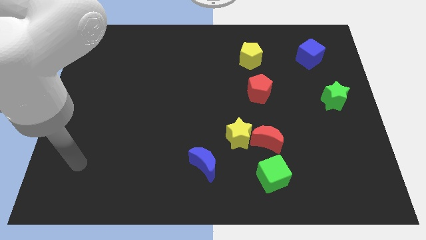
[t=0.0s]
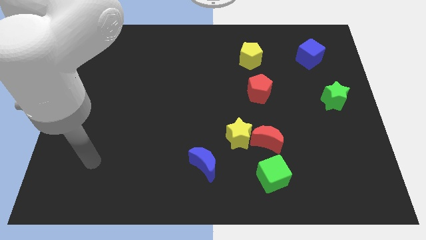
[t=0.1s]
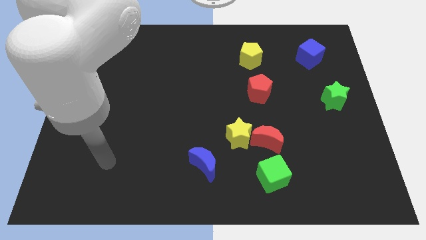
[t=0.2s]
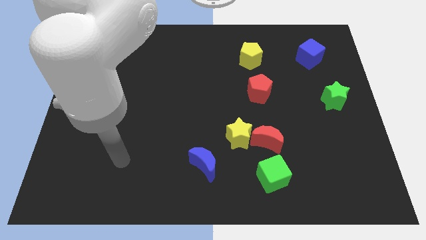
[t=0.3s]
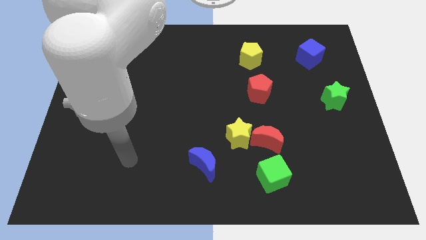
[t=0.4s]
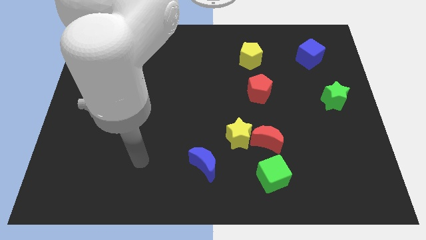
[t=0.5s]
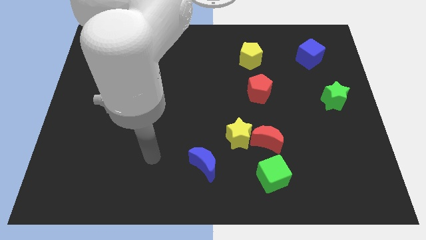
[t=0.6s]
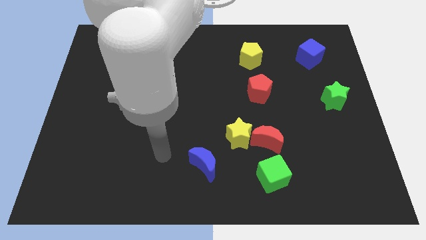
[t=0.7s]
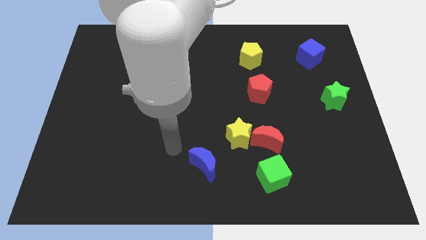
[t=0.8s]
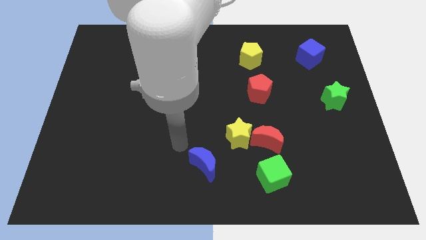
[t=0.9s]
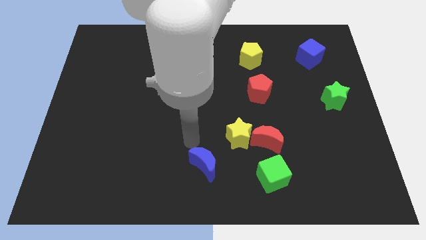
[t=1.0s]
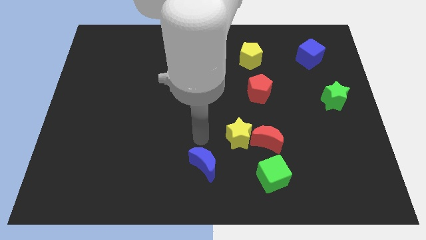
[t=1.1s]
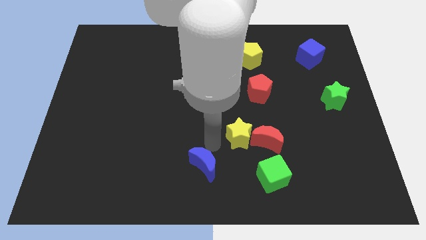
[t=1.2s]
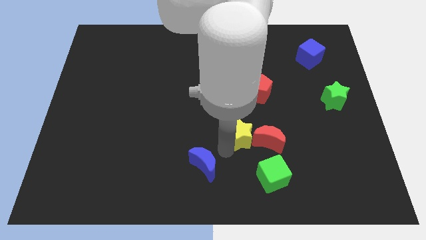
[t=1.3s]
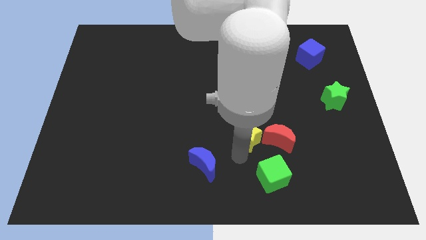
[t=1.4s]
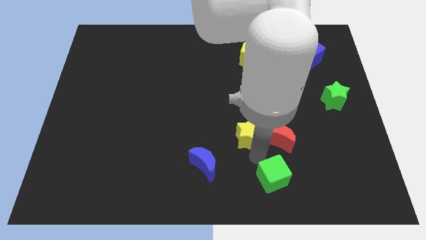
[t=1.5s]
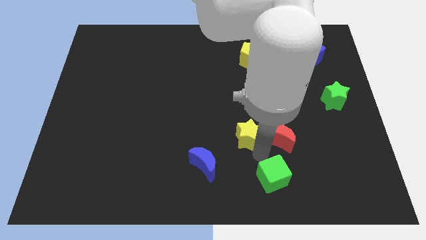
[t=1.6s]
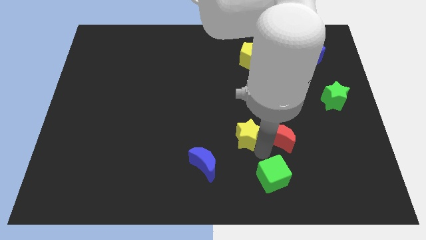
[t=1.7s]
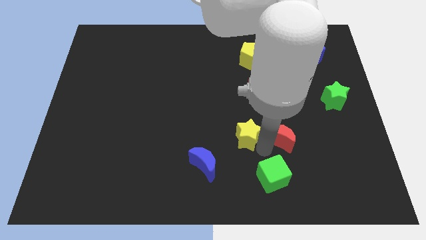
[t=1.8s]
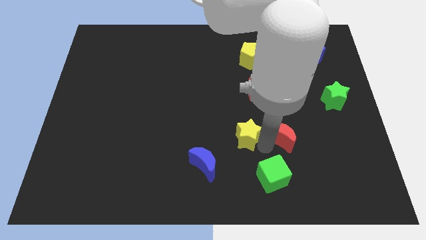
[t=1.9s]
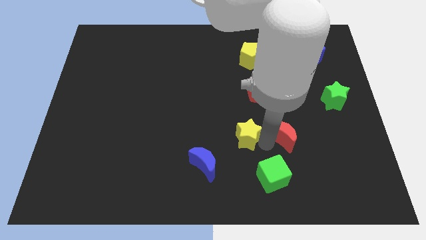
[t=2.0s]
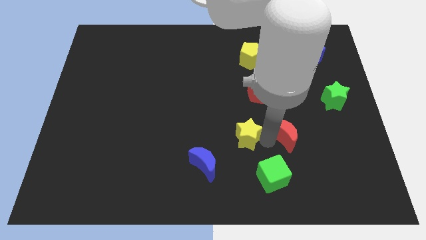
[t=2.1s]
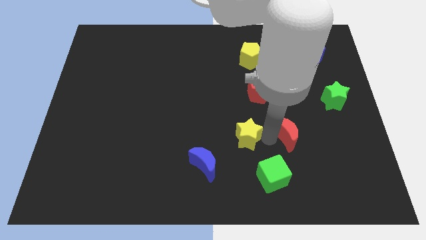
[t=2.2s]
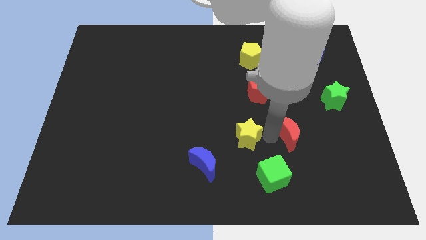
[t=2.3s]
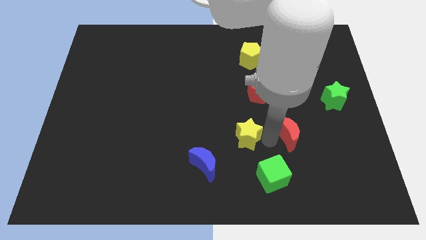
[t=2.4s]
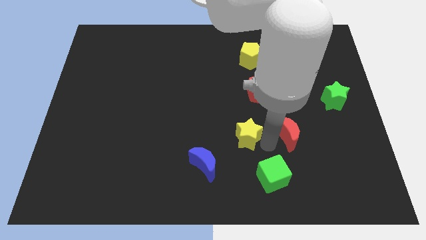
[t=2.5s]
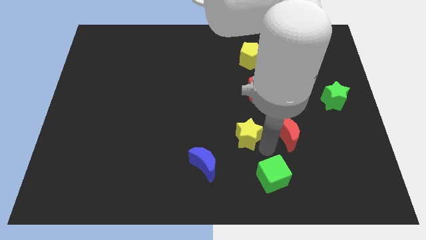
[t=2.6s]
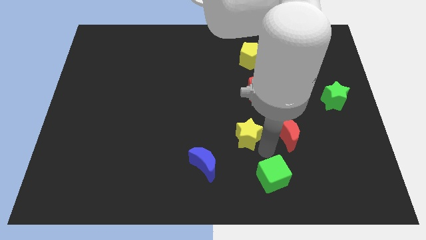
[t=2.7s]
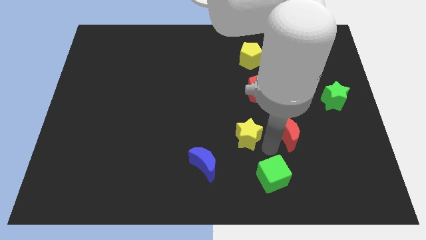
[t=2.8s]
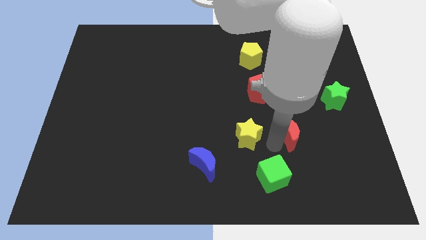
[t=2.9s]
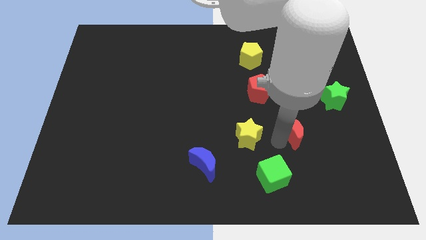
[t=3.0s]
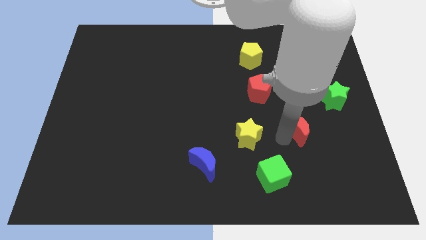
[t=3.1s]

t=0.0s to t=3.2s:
pull the red moon apart from the yellow star and green cube

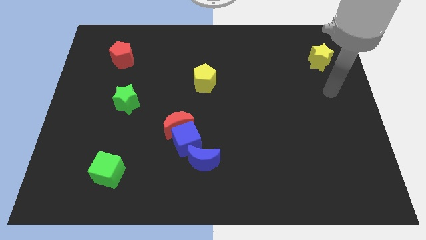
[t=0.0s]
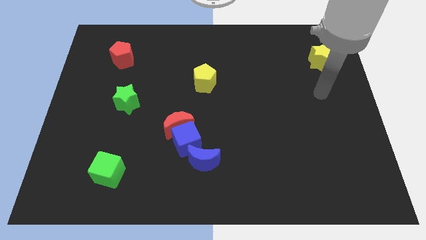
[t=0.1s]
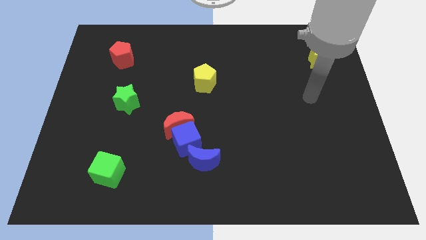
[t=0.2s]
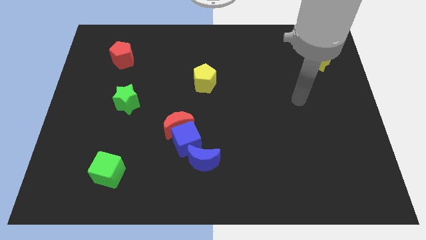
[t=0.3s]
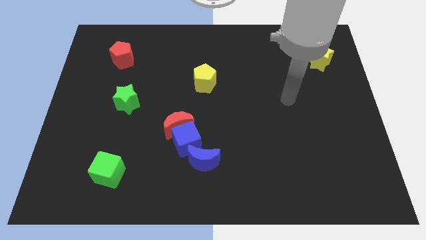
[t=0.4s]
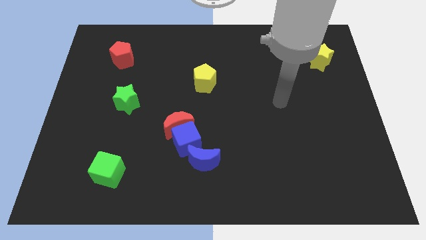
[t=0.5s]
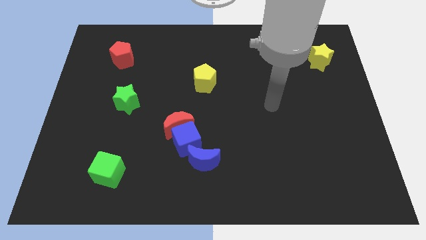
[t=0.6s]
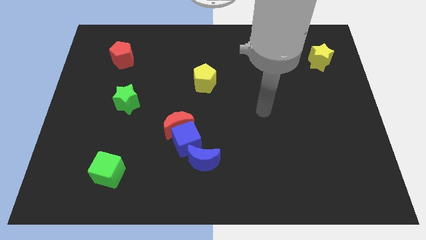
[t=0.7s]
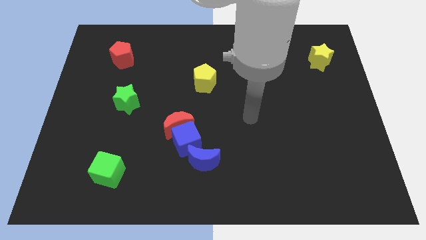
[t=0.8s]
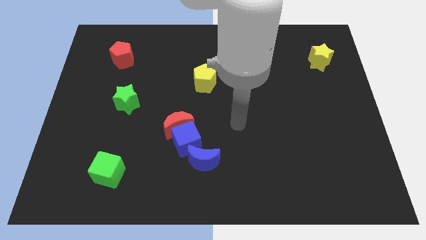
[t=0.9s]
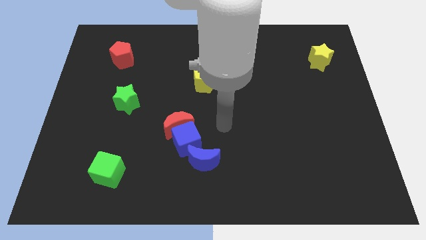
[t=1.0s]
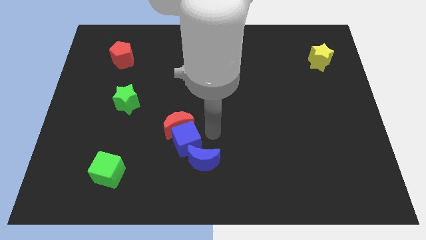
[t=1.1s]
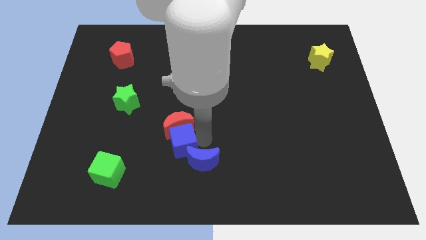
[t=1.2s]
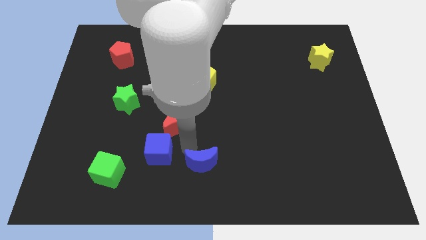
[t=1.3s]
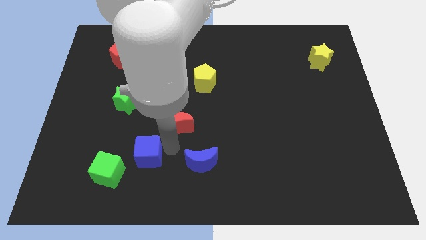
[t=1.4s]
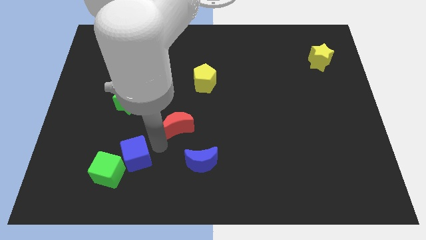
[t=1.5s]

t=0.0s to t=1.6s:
pull the red moon apart from the blue cube

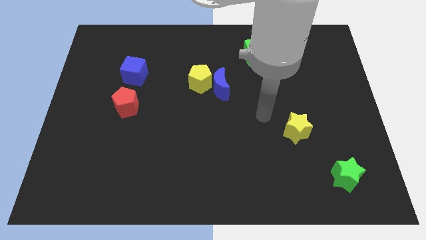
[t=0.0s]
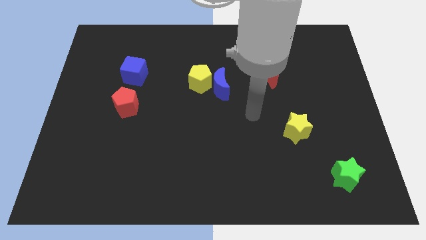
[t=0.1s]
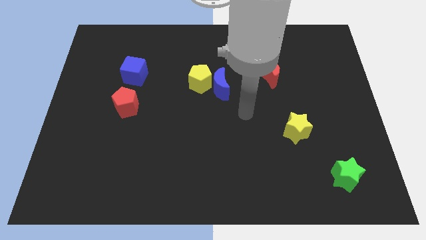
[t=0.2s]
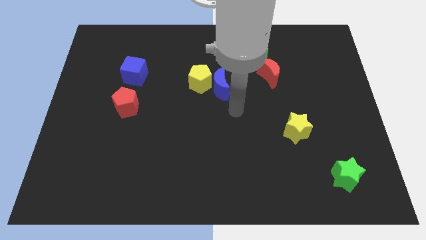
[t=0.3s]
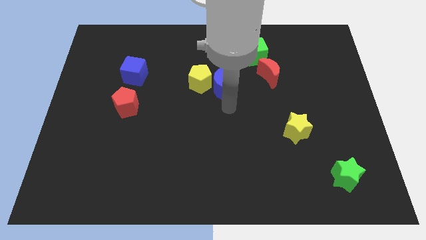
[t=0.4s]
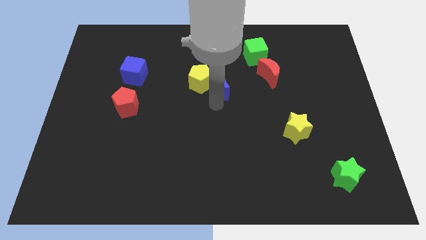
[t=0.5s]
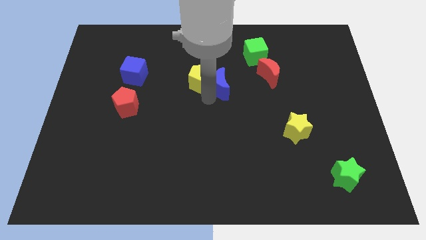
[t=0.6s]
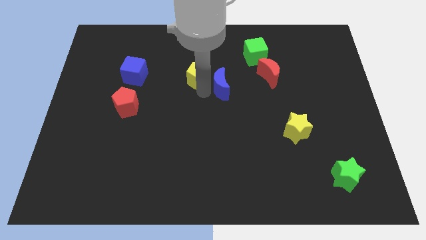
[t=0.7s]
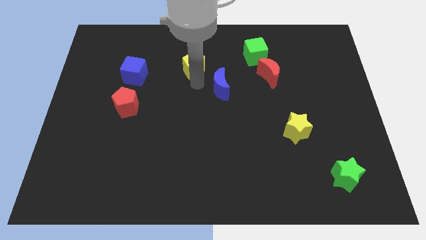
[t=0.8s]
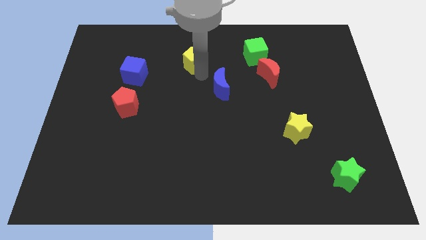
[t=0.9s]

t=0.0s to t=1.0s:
separate the blue moon from the yellow pentagon

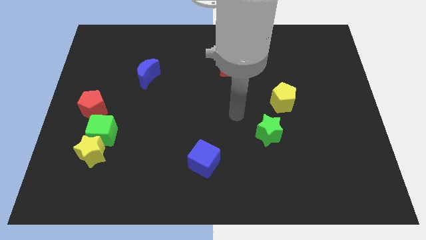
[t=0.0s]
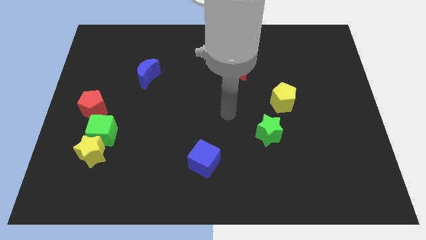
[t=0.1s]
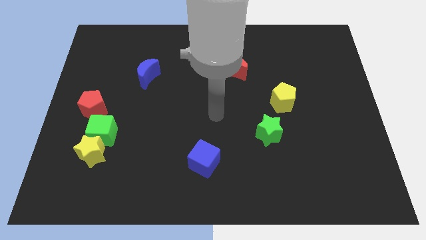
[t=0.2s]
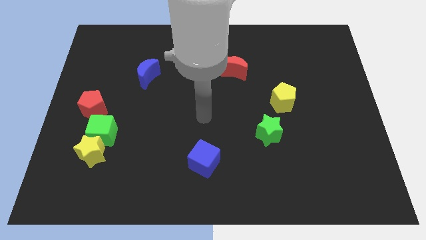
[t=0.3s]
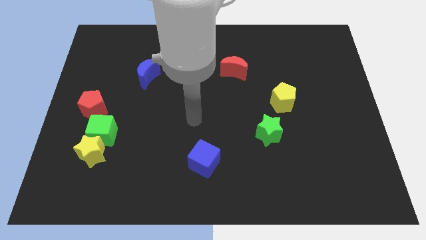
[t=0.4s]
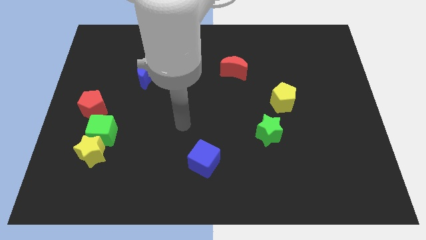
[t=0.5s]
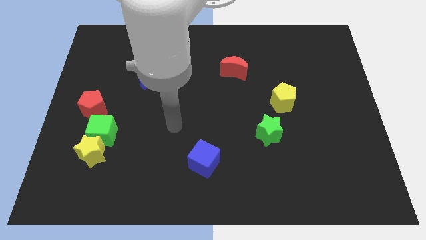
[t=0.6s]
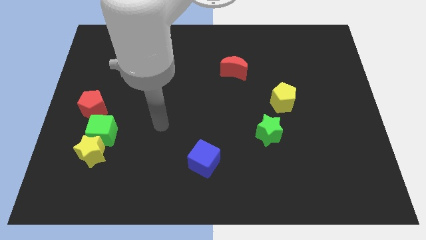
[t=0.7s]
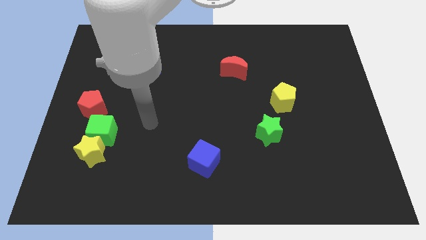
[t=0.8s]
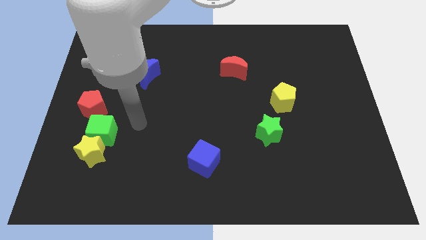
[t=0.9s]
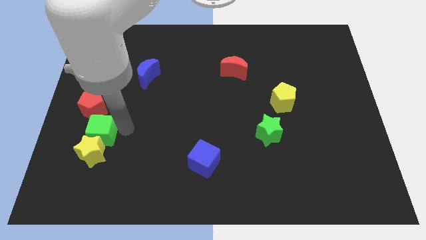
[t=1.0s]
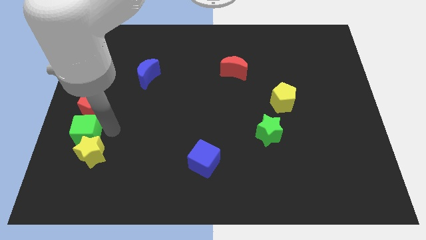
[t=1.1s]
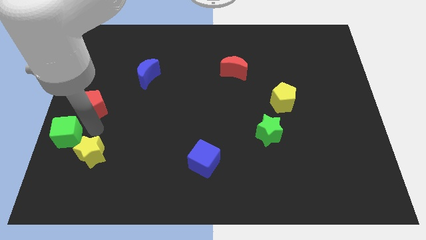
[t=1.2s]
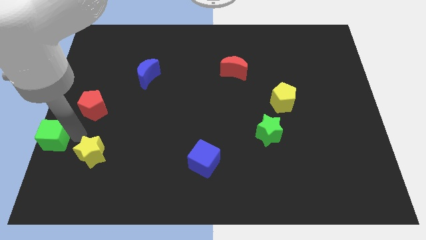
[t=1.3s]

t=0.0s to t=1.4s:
move the yellow star away from the green cube

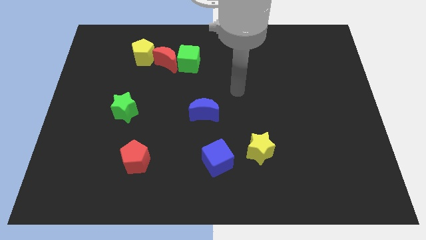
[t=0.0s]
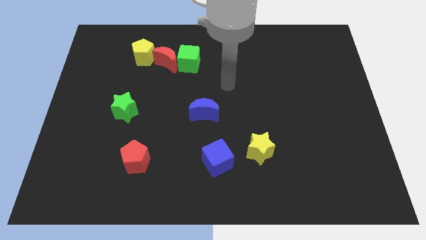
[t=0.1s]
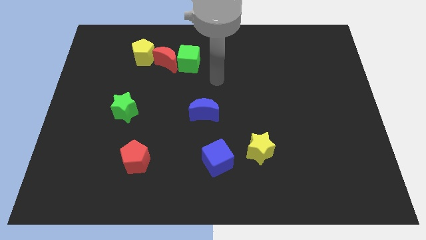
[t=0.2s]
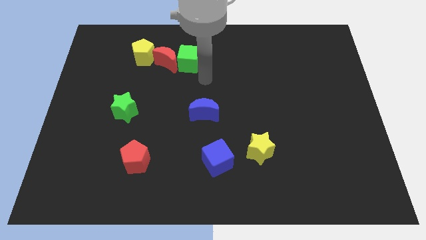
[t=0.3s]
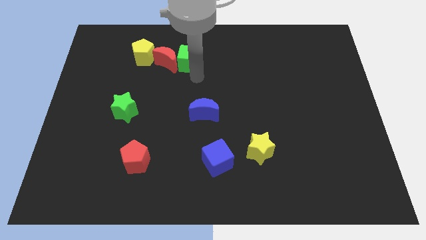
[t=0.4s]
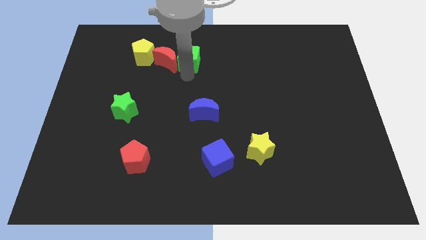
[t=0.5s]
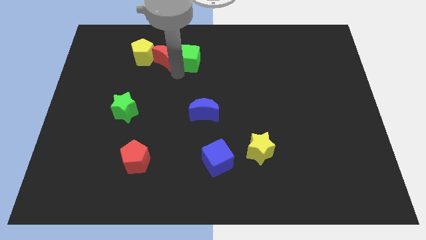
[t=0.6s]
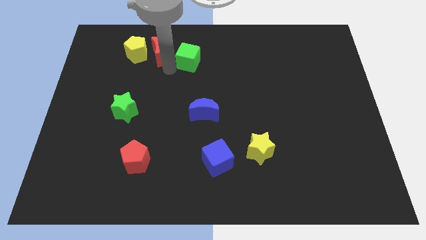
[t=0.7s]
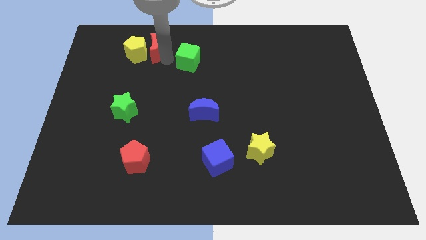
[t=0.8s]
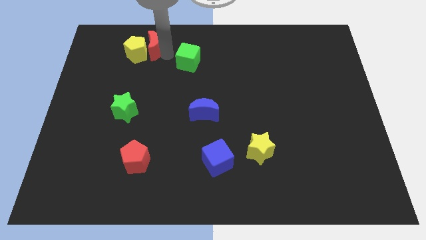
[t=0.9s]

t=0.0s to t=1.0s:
move the green cube away from the red moon

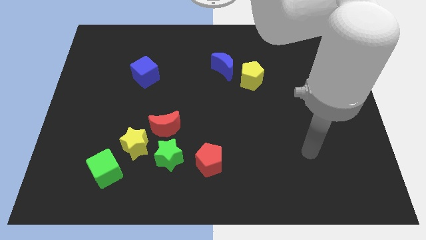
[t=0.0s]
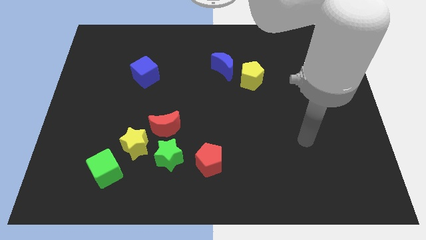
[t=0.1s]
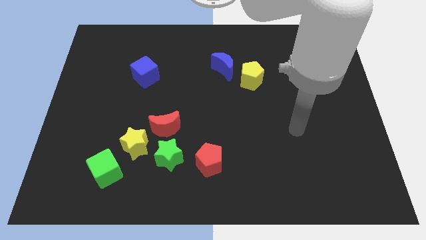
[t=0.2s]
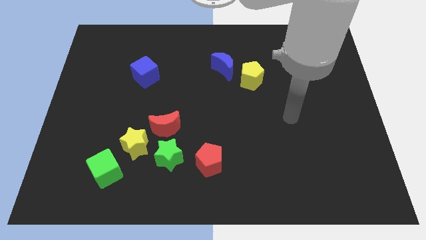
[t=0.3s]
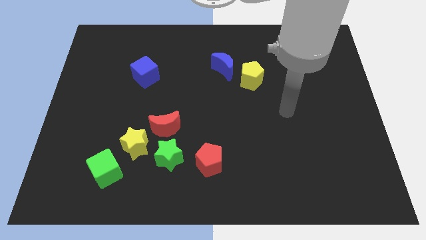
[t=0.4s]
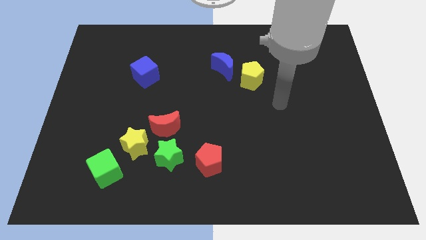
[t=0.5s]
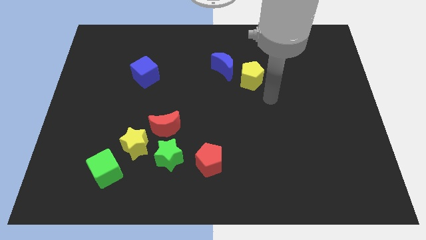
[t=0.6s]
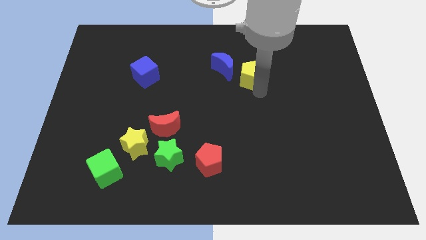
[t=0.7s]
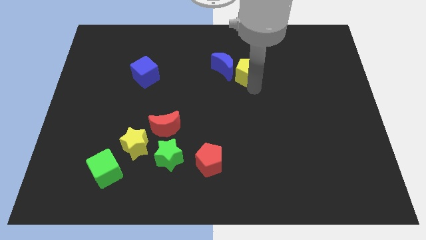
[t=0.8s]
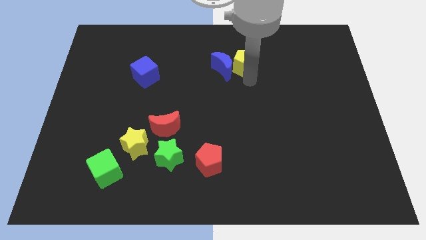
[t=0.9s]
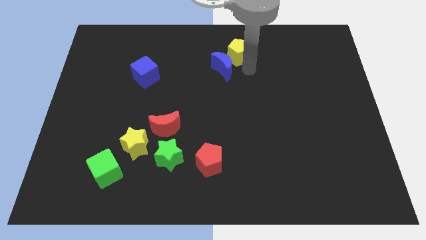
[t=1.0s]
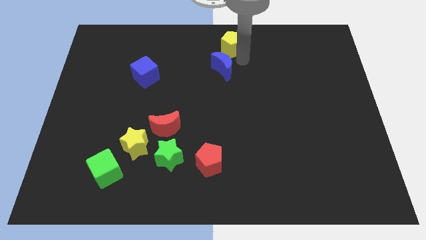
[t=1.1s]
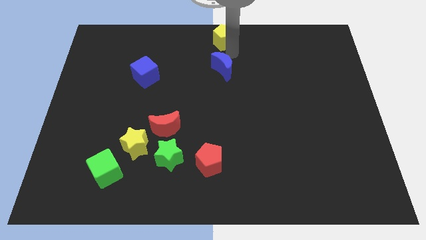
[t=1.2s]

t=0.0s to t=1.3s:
move the blue moon away from the yellow pentagon
